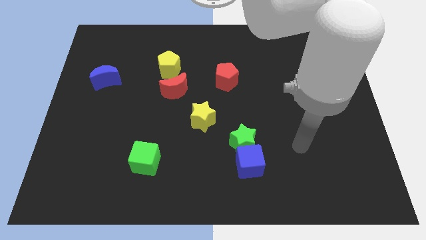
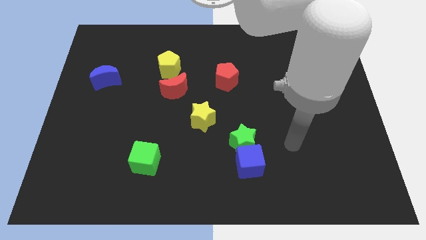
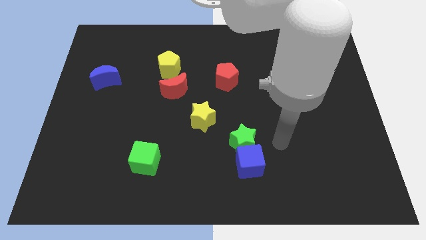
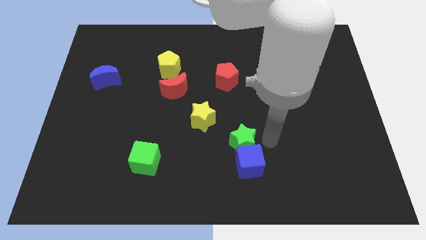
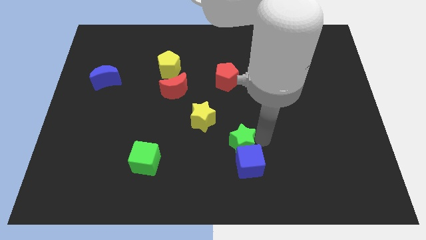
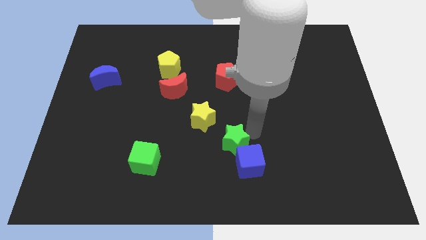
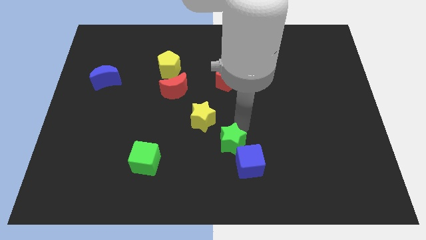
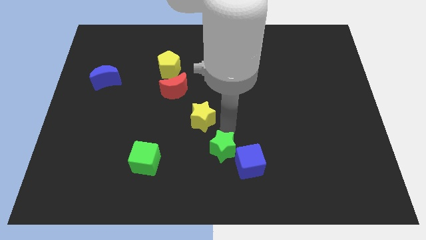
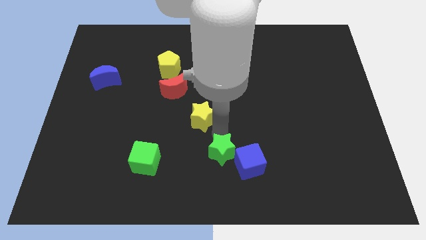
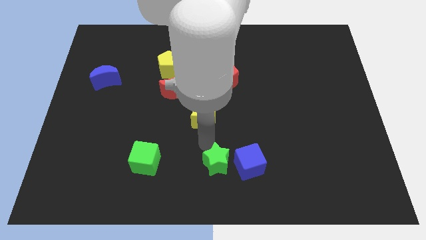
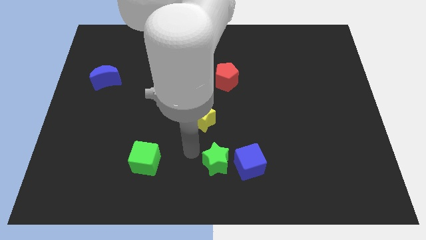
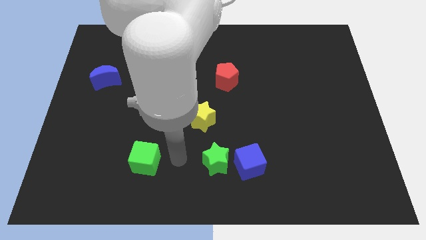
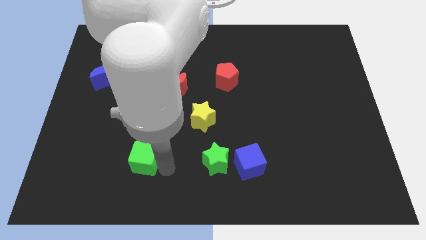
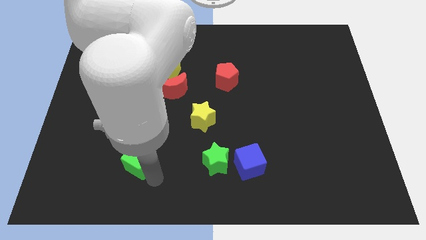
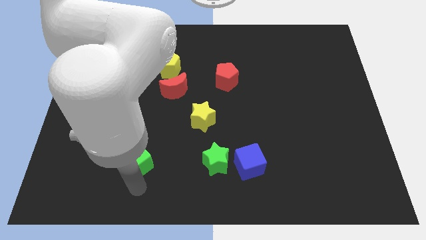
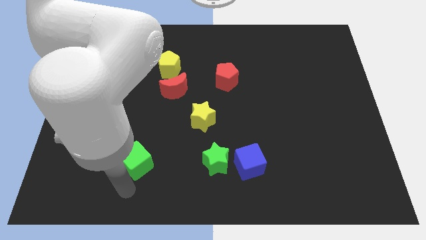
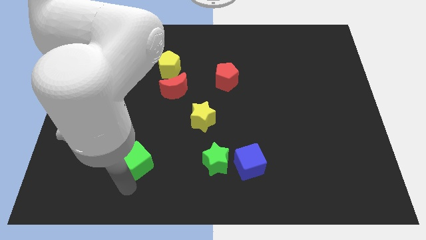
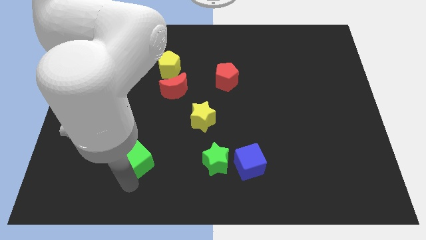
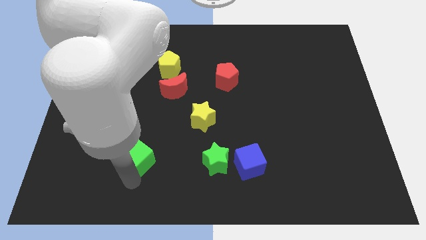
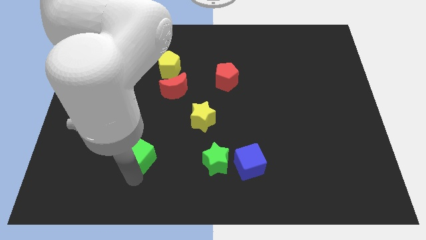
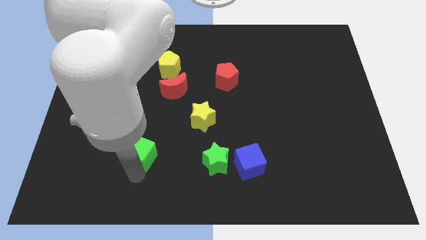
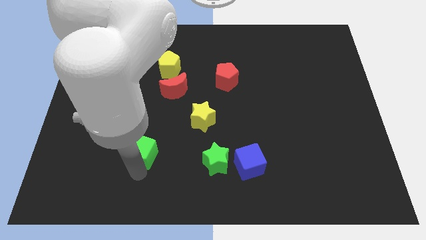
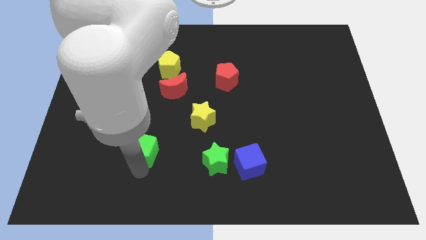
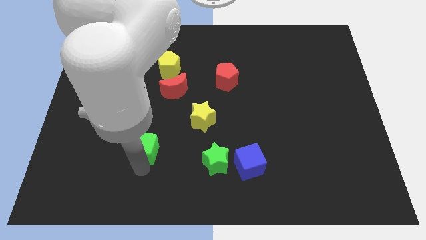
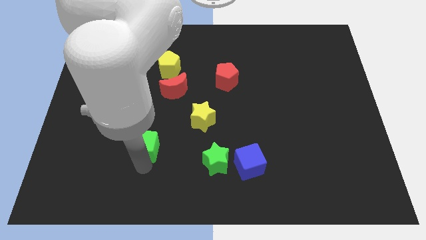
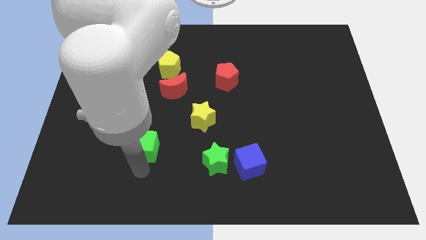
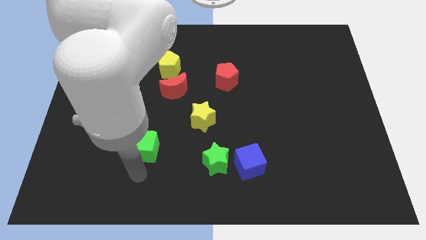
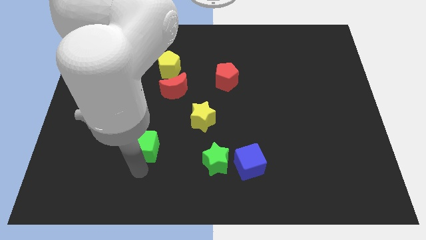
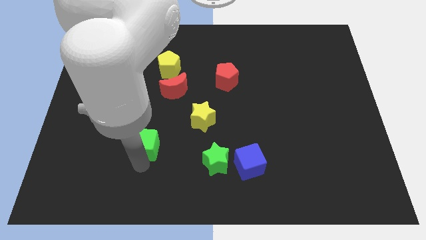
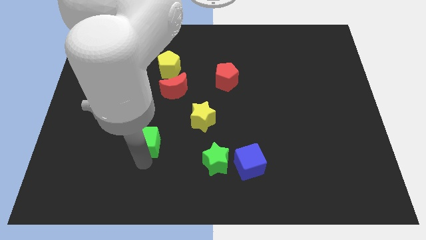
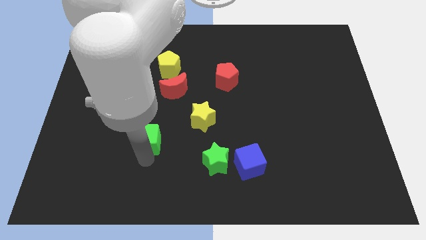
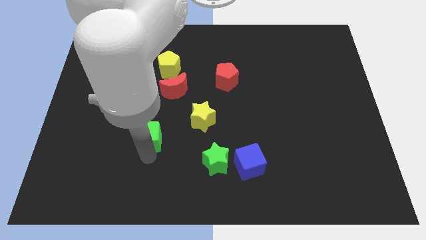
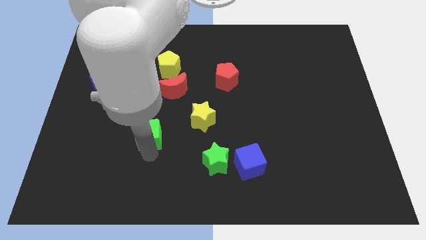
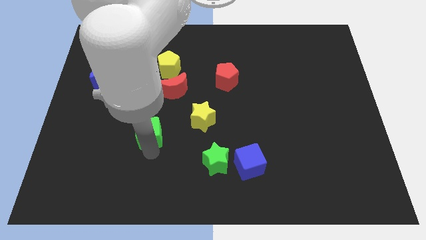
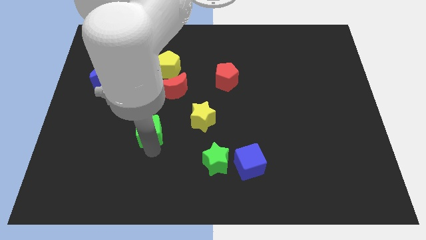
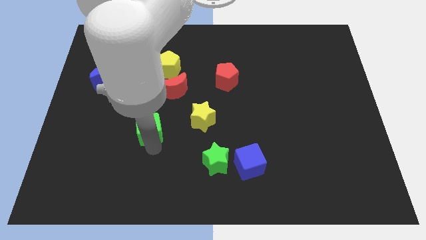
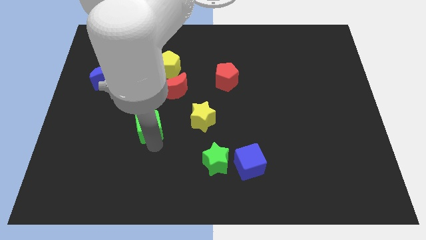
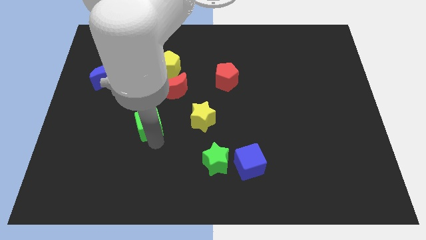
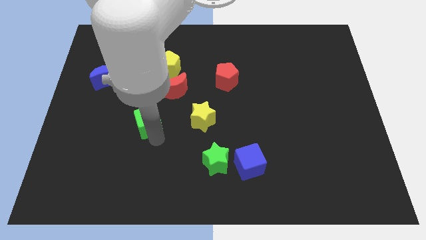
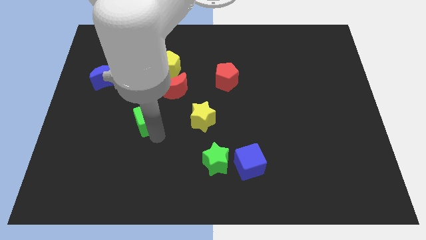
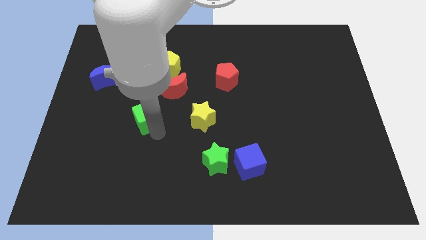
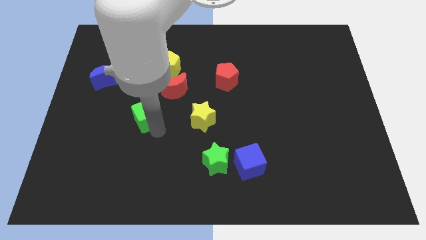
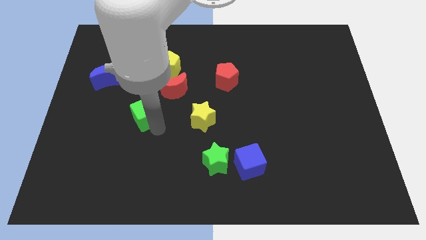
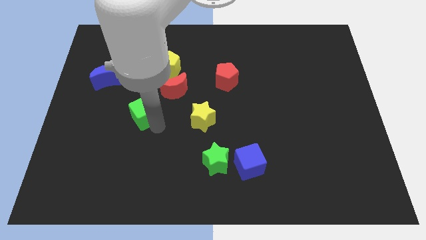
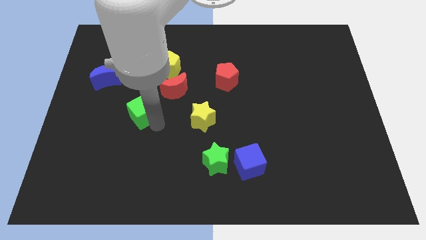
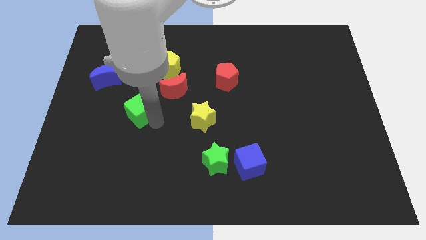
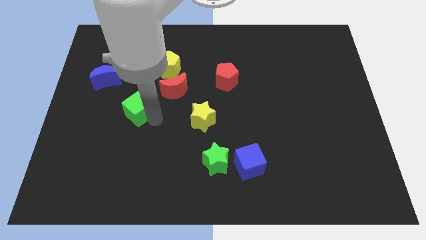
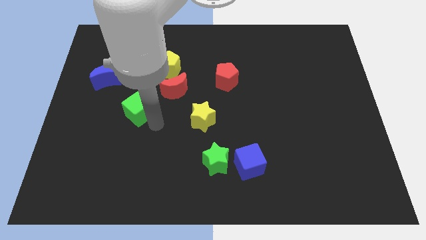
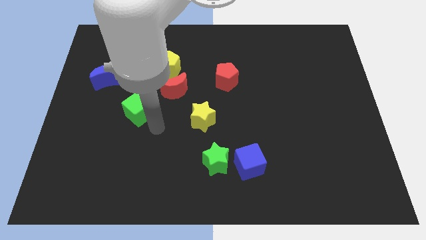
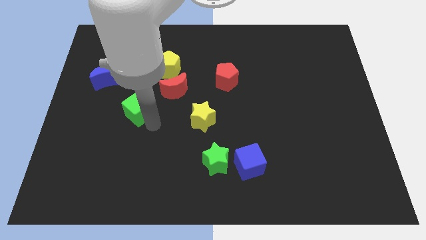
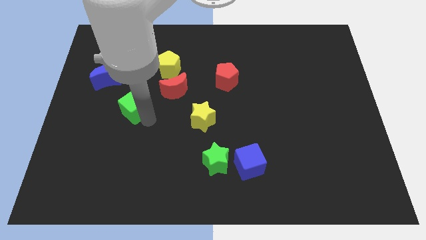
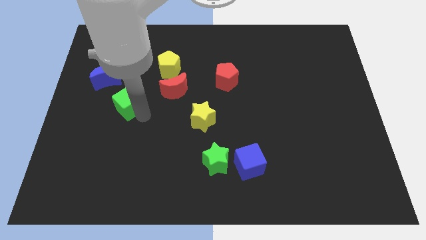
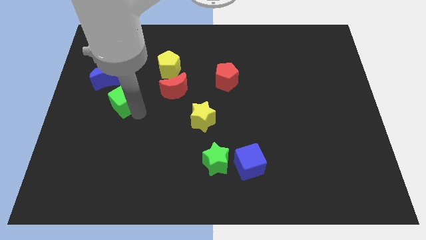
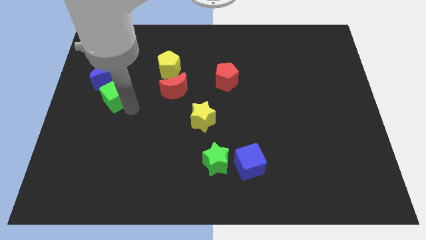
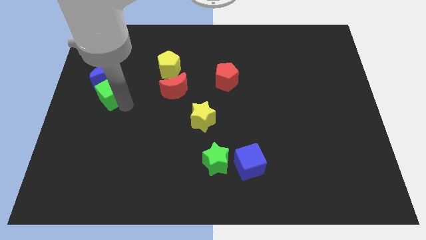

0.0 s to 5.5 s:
put the green cube to the blue moon

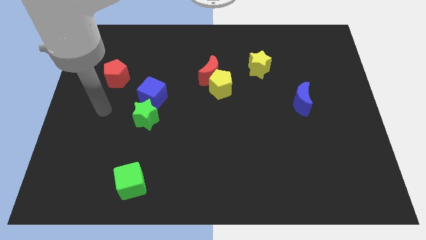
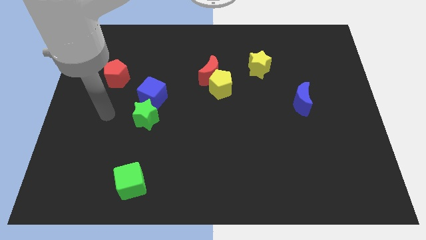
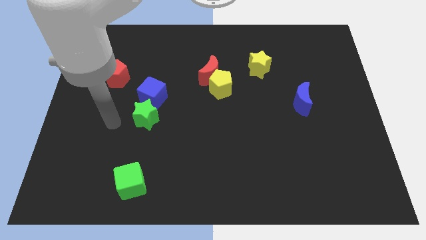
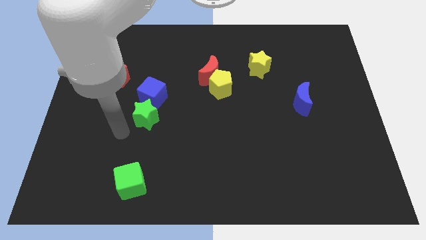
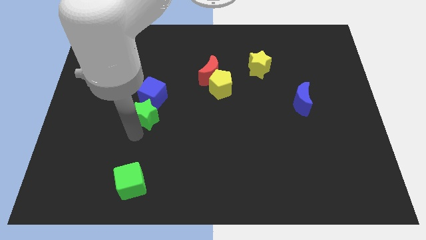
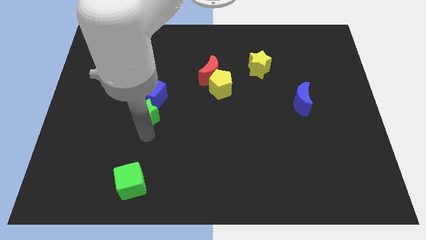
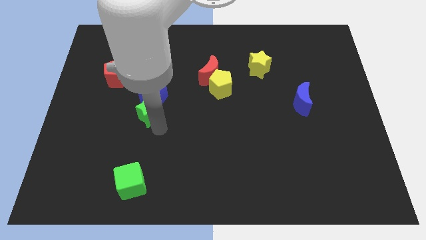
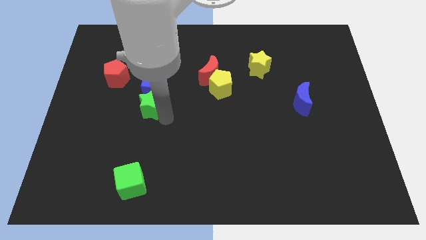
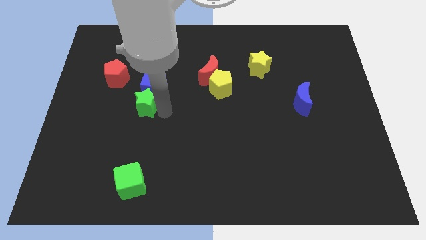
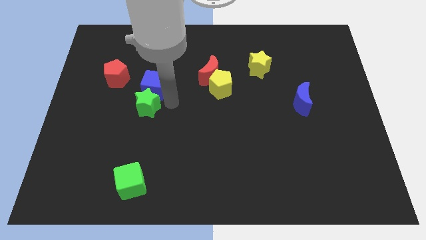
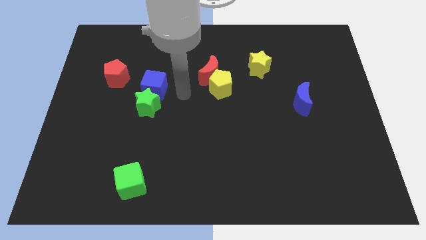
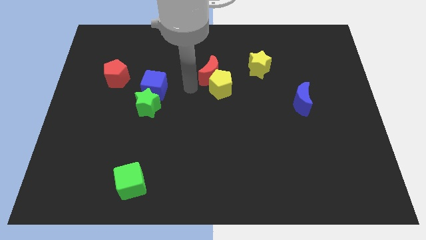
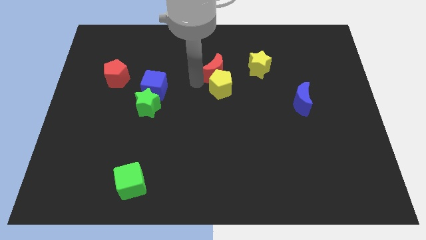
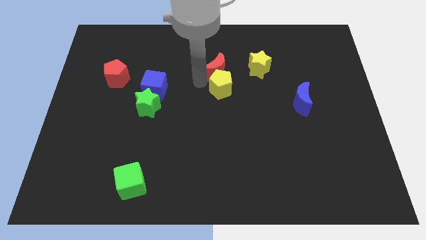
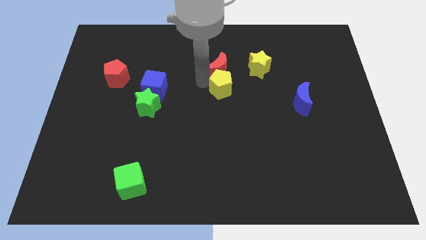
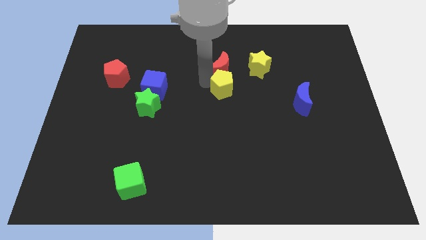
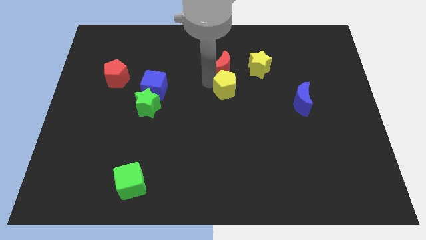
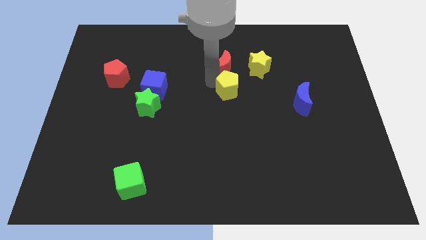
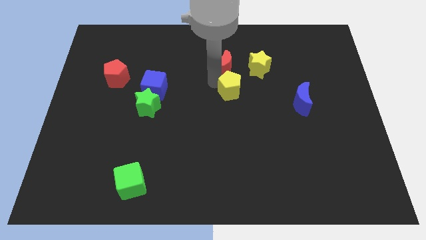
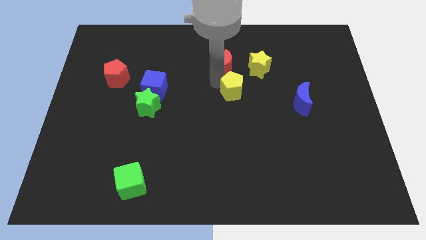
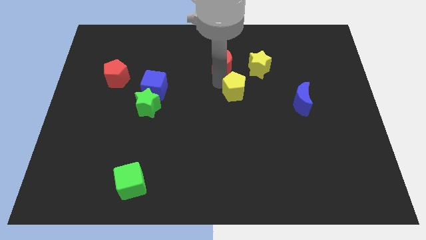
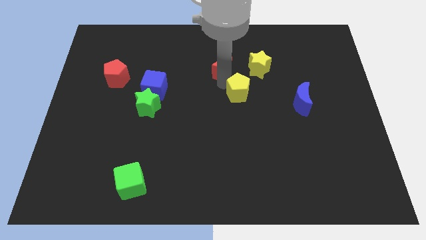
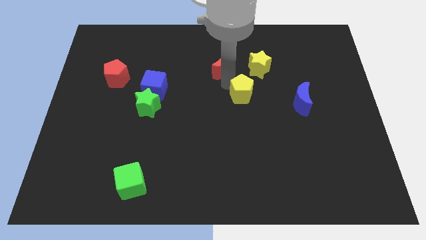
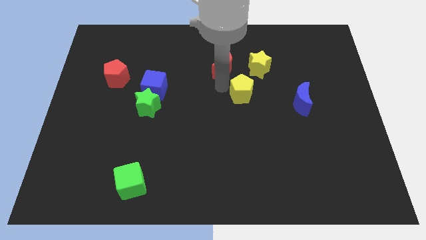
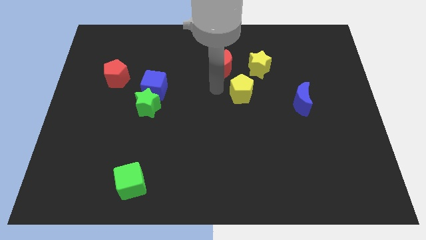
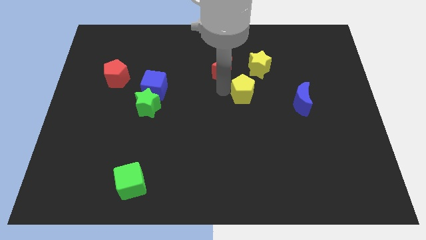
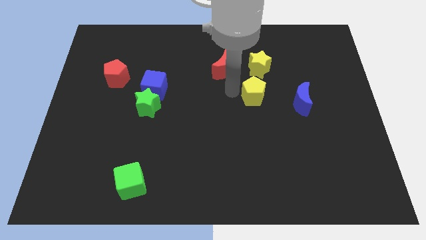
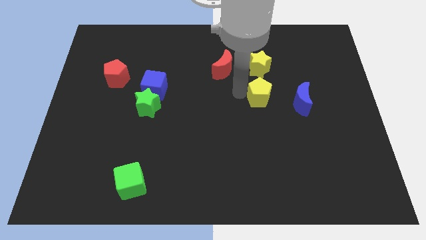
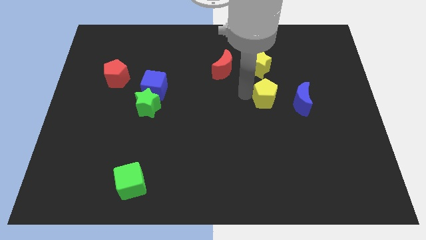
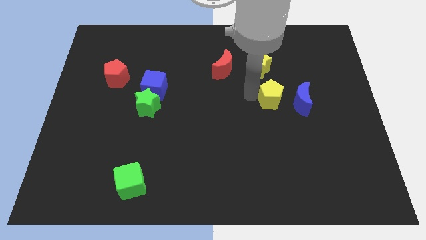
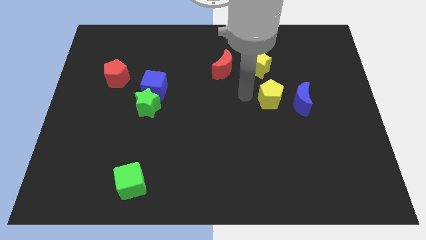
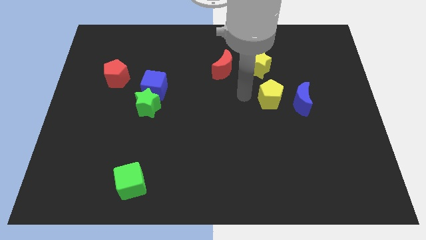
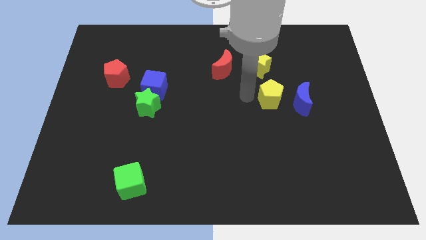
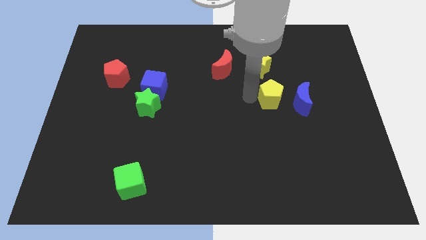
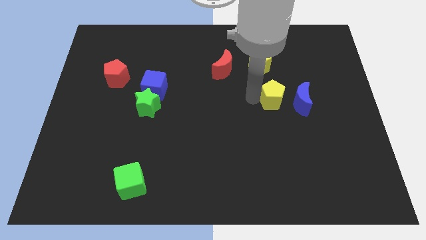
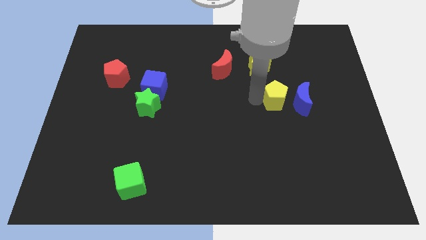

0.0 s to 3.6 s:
push the yellow pentagon to the blue moon
